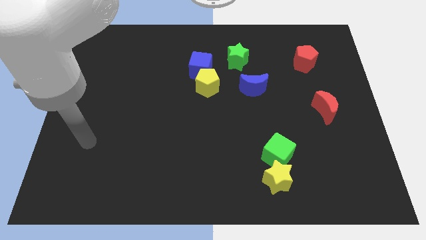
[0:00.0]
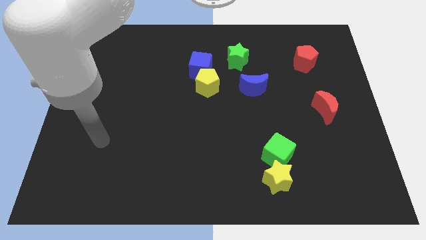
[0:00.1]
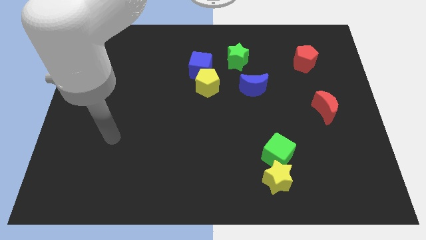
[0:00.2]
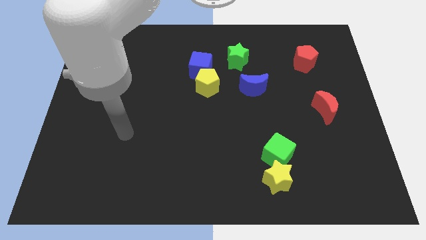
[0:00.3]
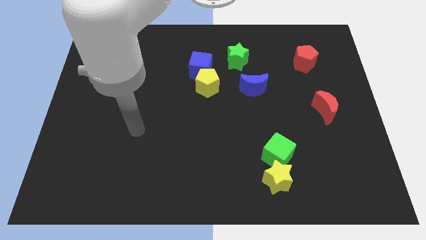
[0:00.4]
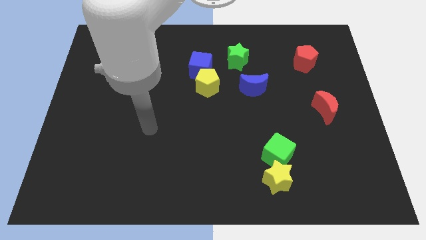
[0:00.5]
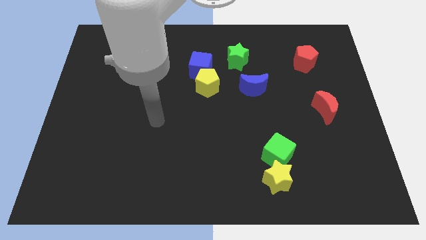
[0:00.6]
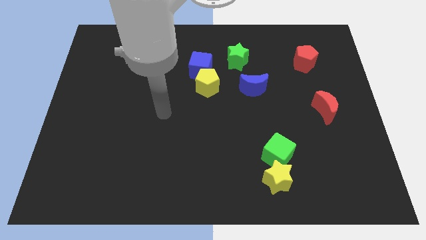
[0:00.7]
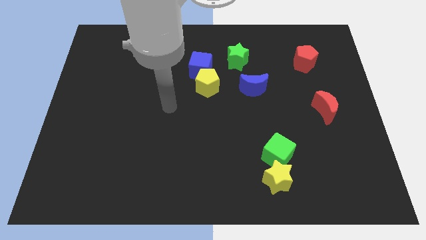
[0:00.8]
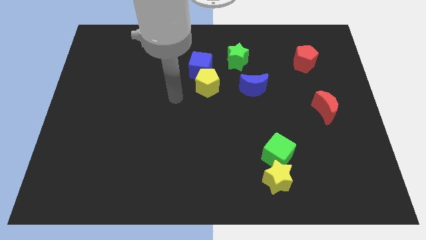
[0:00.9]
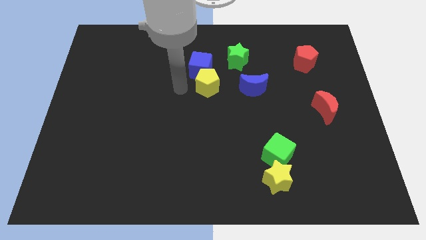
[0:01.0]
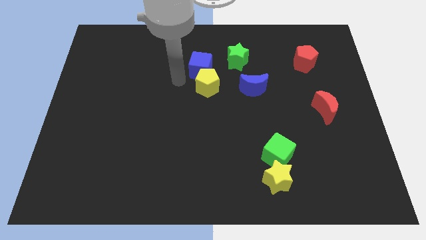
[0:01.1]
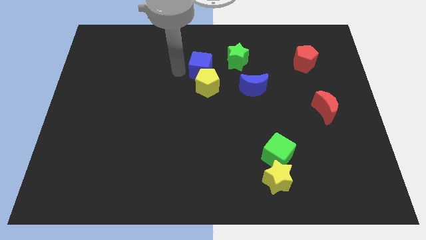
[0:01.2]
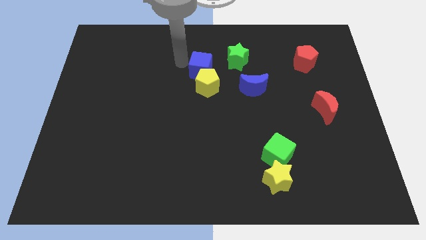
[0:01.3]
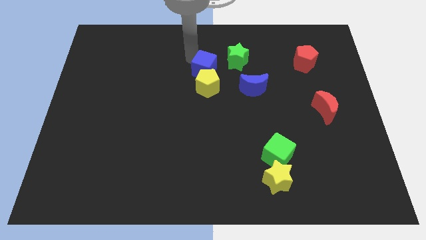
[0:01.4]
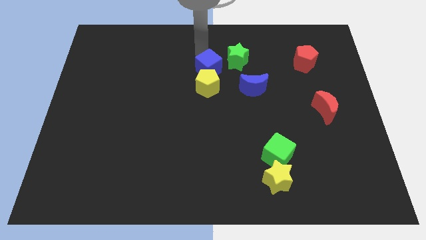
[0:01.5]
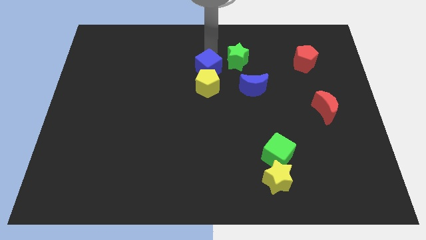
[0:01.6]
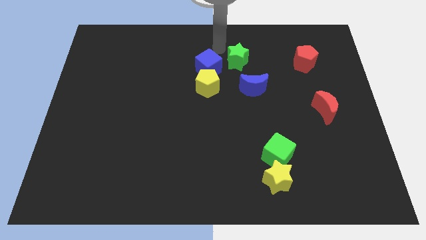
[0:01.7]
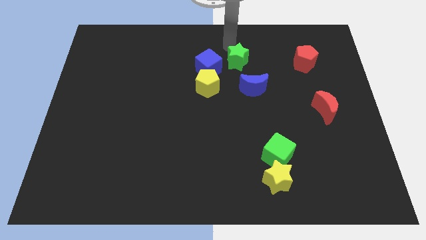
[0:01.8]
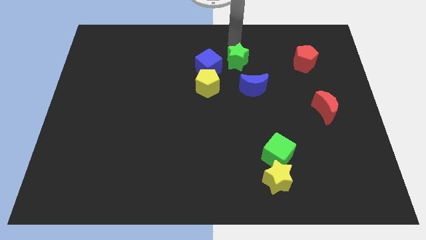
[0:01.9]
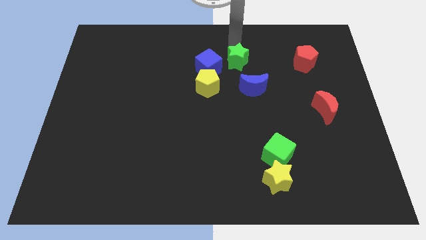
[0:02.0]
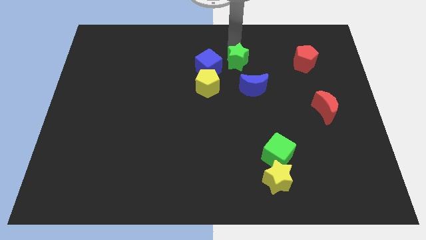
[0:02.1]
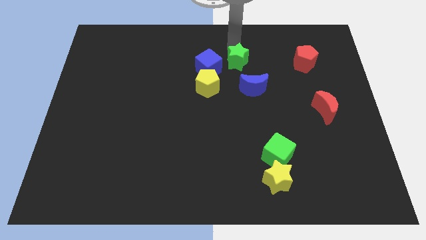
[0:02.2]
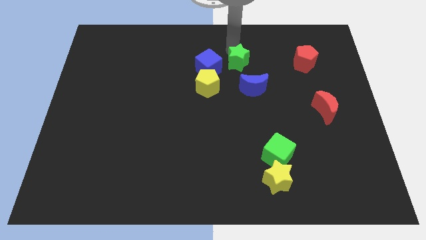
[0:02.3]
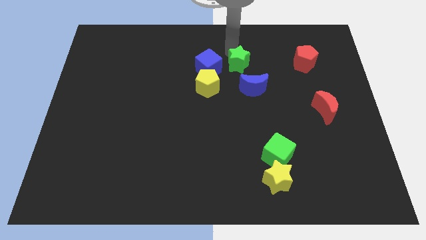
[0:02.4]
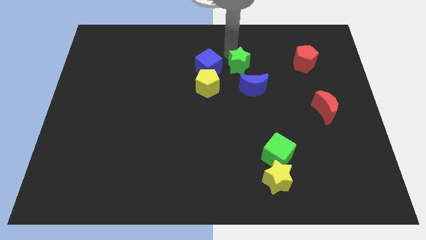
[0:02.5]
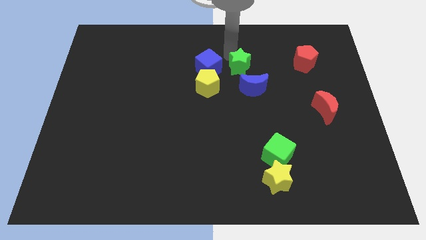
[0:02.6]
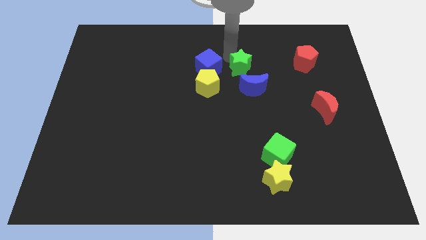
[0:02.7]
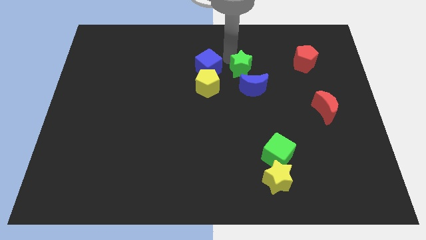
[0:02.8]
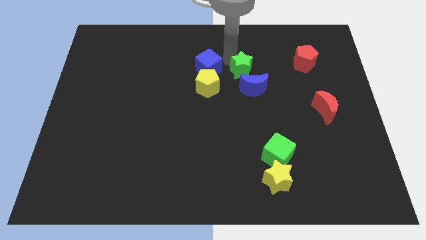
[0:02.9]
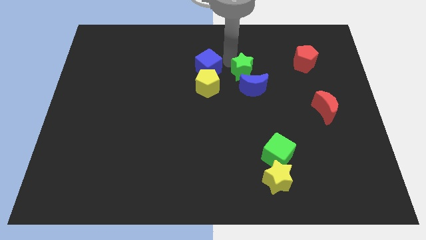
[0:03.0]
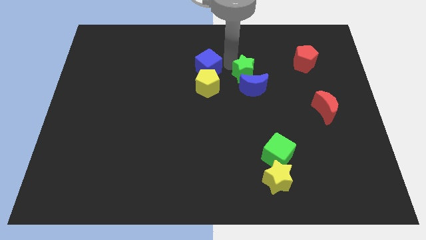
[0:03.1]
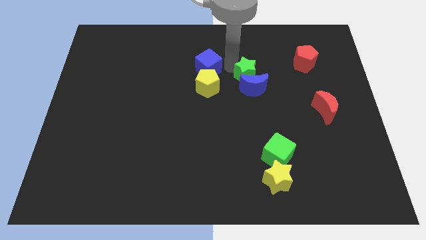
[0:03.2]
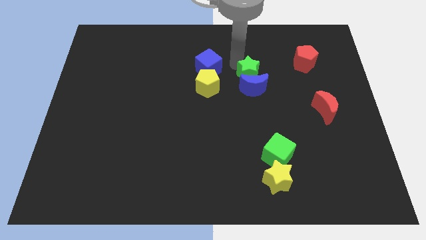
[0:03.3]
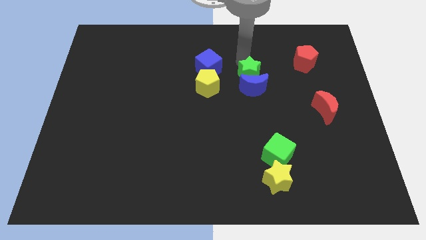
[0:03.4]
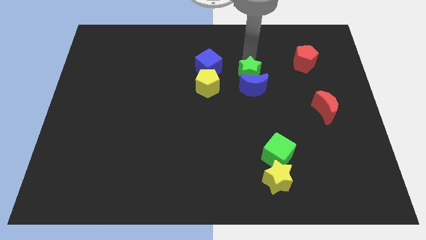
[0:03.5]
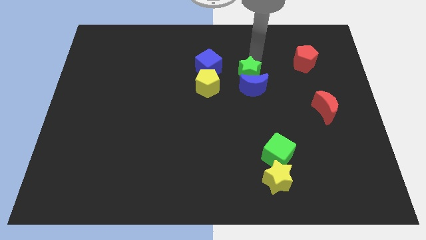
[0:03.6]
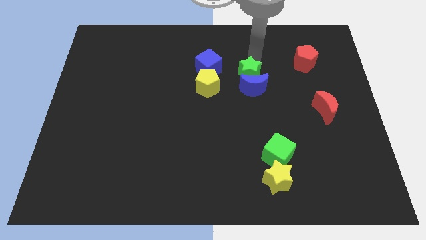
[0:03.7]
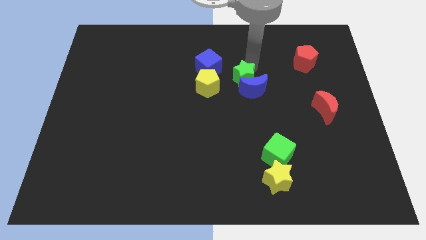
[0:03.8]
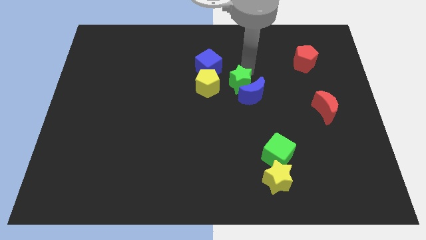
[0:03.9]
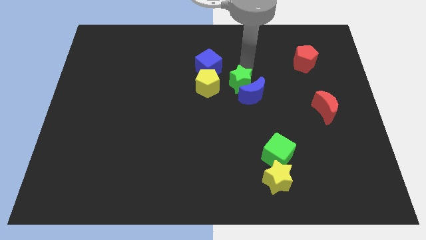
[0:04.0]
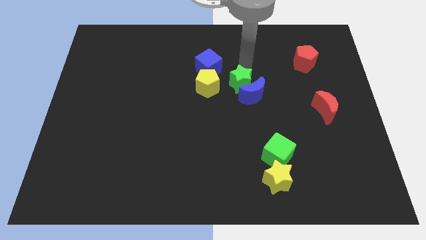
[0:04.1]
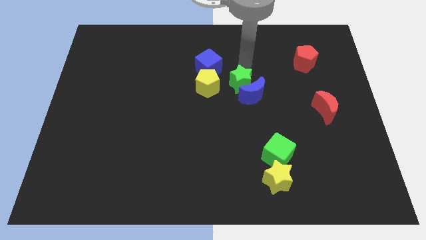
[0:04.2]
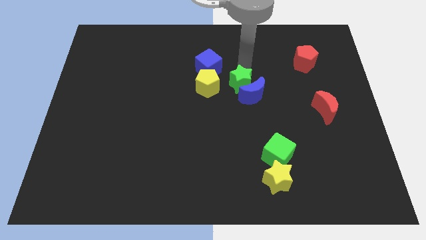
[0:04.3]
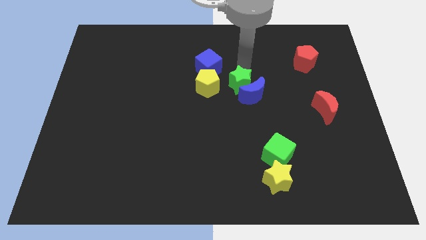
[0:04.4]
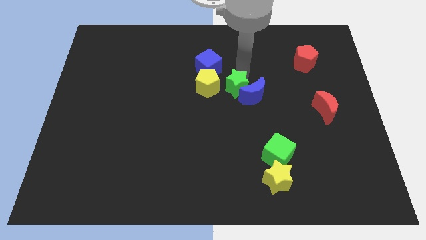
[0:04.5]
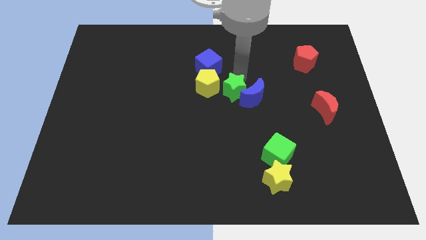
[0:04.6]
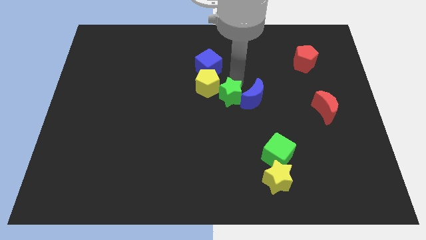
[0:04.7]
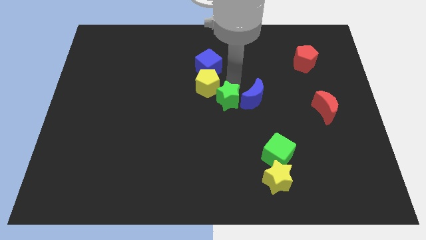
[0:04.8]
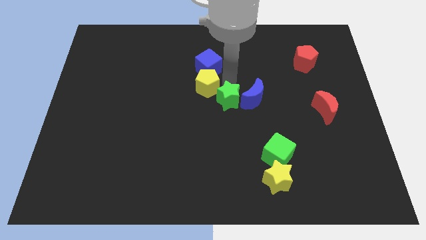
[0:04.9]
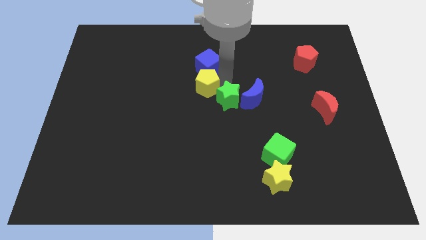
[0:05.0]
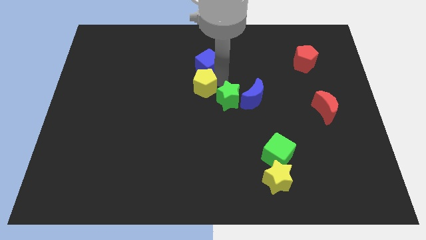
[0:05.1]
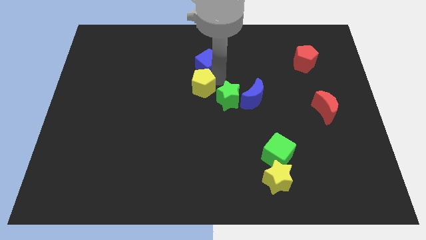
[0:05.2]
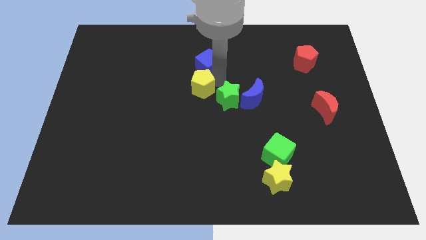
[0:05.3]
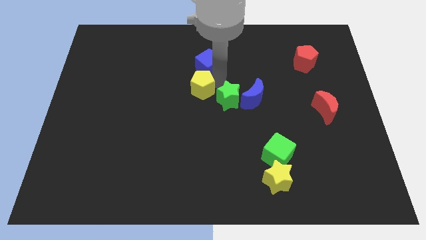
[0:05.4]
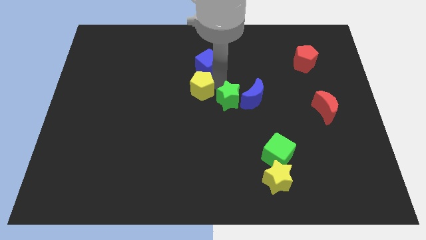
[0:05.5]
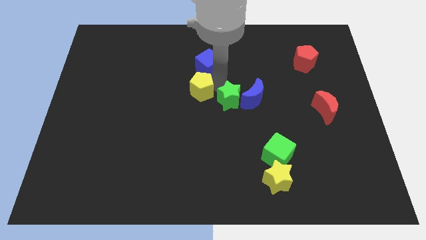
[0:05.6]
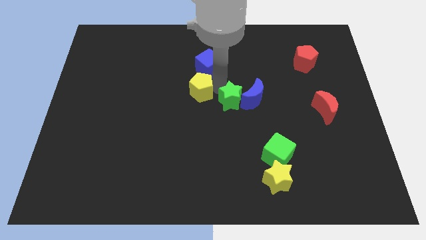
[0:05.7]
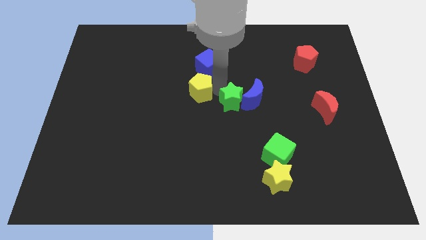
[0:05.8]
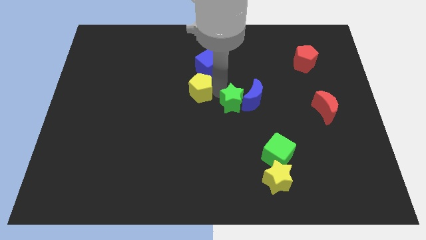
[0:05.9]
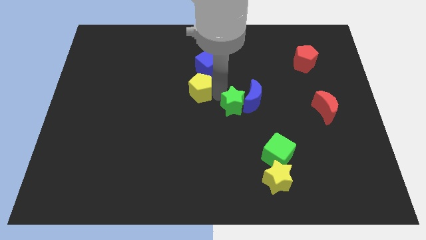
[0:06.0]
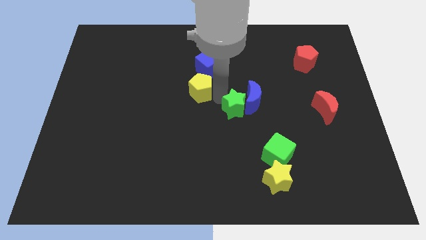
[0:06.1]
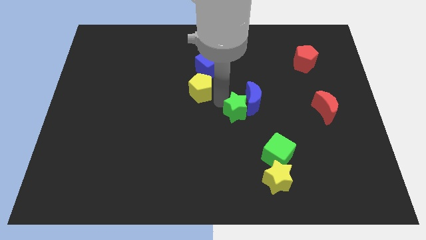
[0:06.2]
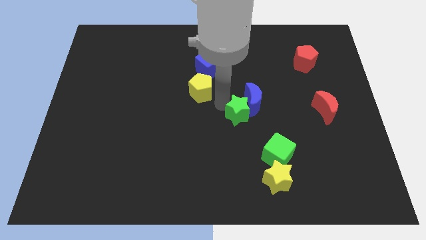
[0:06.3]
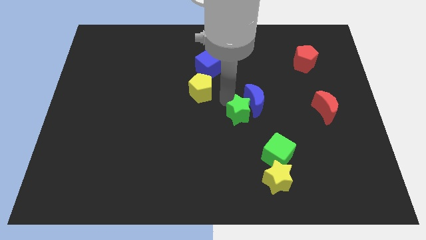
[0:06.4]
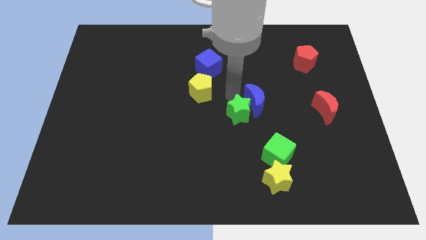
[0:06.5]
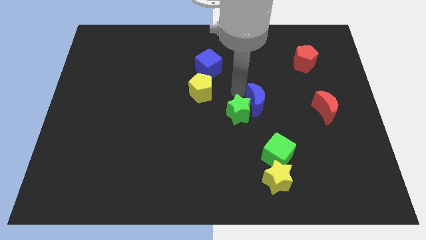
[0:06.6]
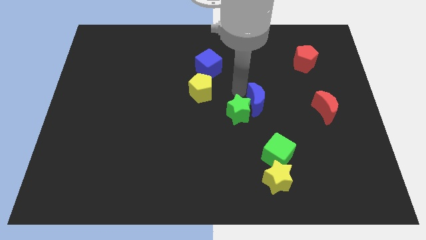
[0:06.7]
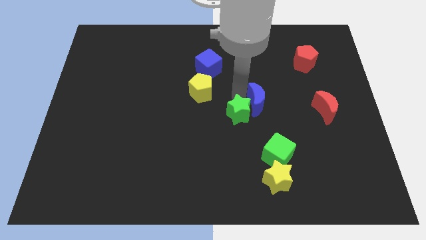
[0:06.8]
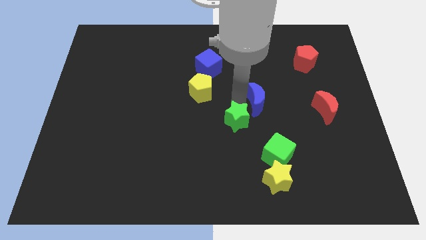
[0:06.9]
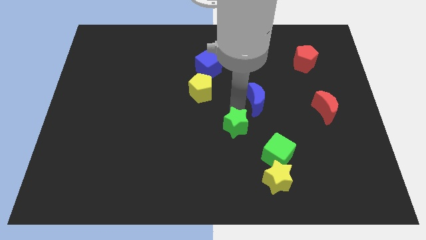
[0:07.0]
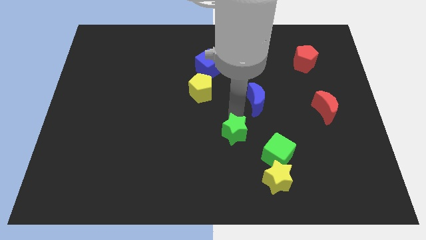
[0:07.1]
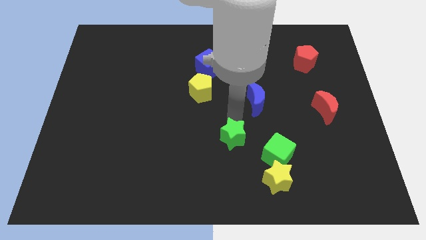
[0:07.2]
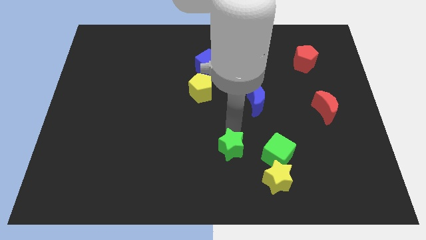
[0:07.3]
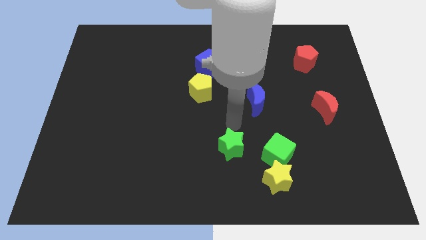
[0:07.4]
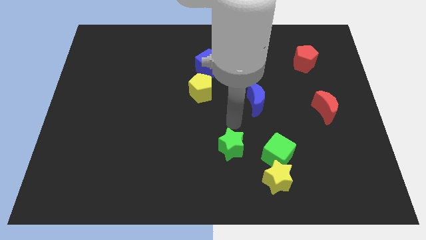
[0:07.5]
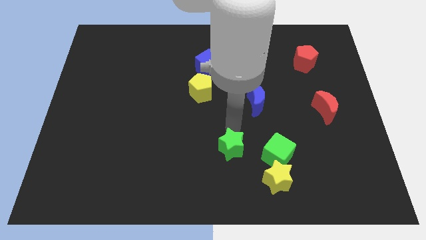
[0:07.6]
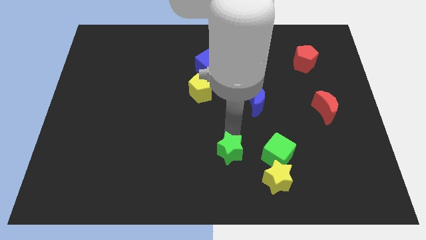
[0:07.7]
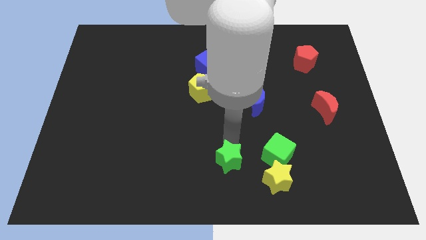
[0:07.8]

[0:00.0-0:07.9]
slide the green star to the left of the yellow star

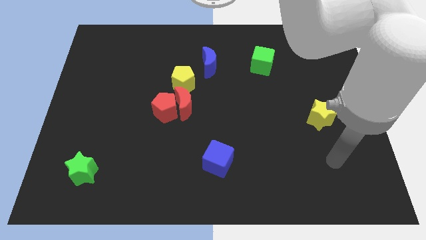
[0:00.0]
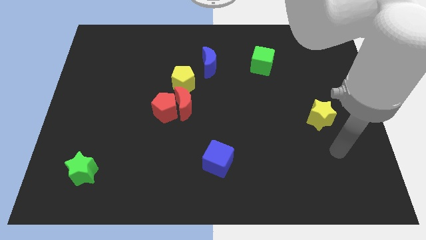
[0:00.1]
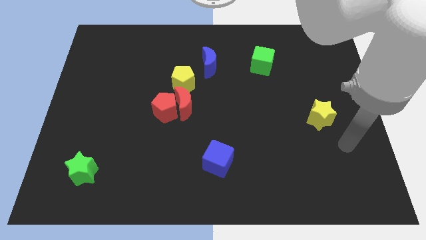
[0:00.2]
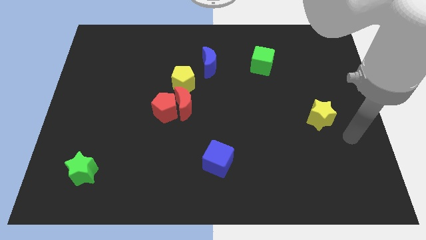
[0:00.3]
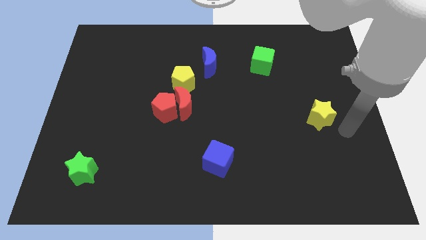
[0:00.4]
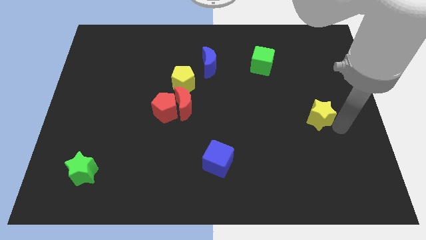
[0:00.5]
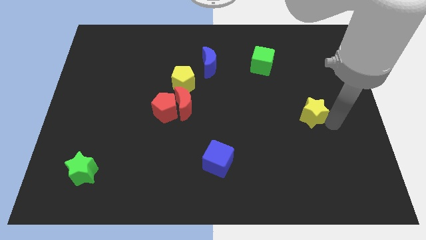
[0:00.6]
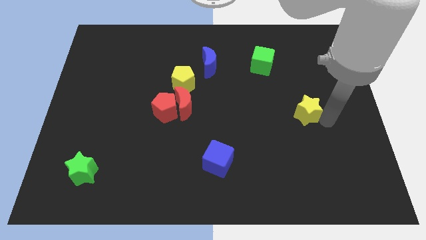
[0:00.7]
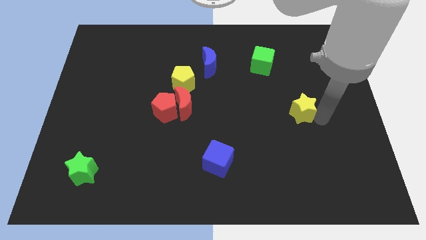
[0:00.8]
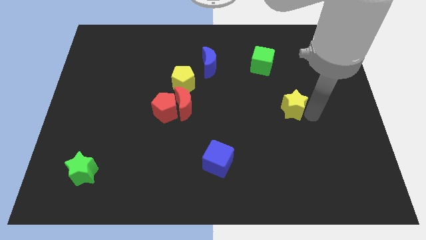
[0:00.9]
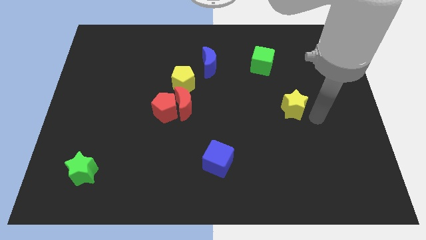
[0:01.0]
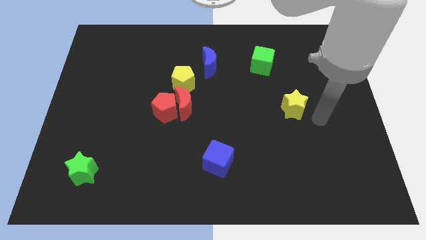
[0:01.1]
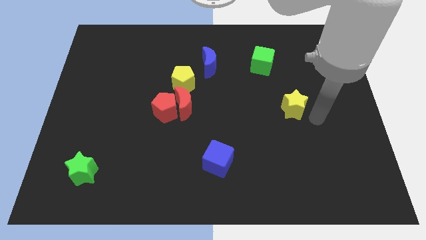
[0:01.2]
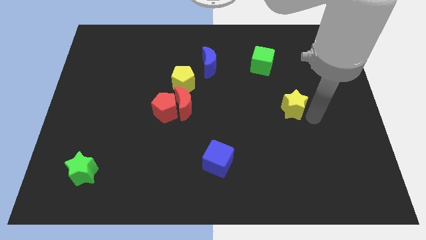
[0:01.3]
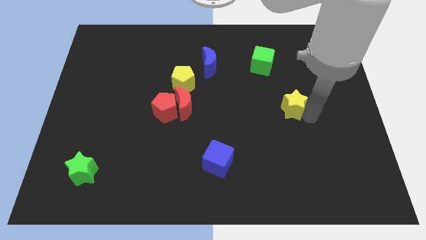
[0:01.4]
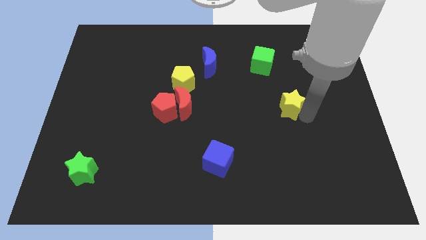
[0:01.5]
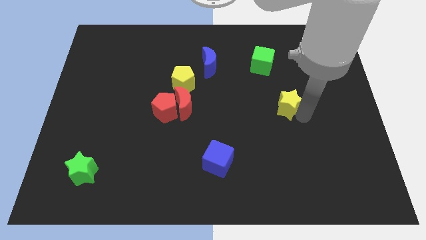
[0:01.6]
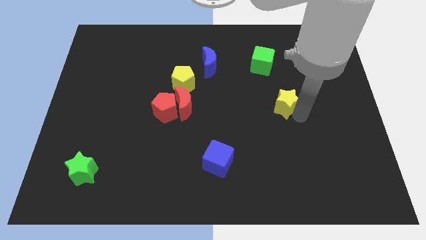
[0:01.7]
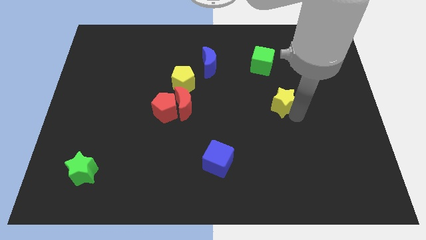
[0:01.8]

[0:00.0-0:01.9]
slide the yellow star to the bottom of the green cube
